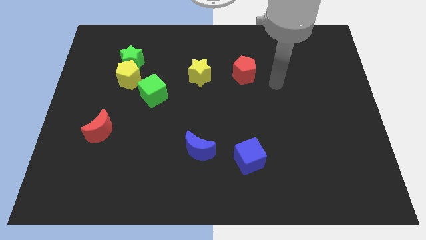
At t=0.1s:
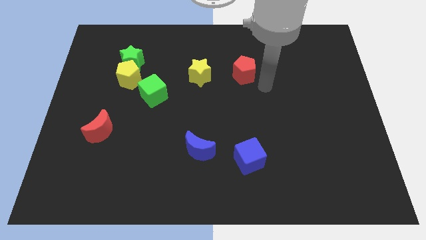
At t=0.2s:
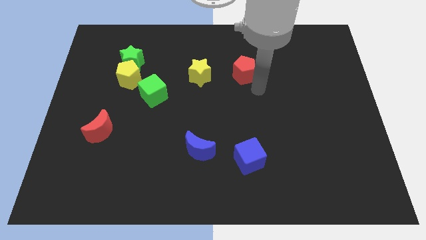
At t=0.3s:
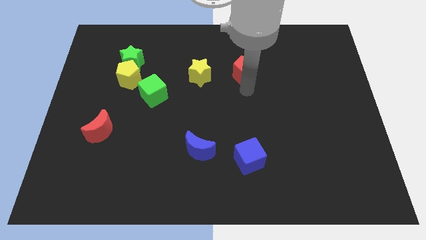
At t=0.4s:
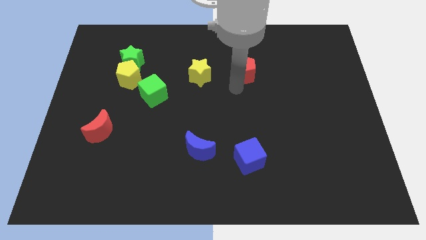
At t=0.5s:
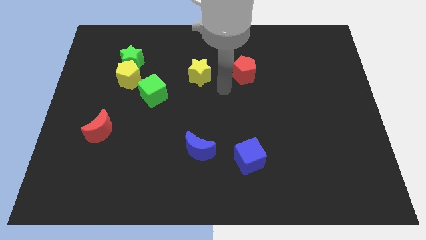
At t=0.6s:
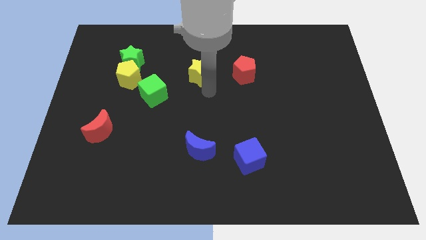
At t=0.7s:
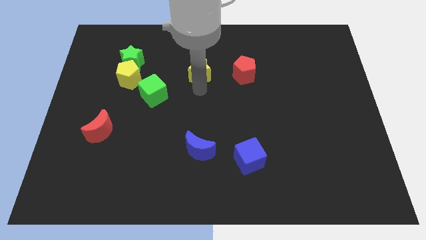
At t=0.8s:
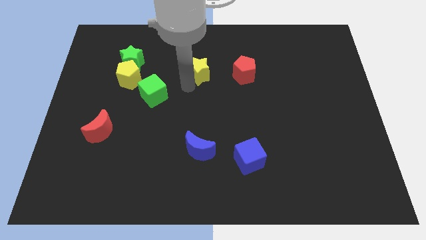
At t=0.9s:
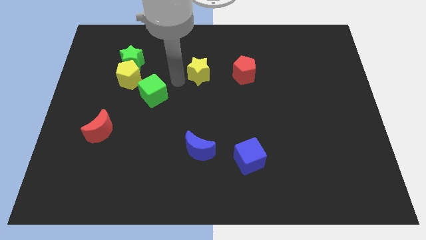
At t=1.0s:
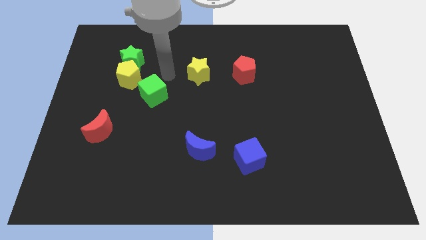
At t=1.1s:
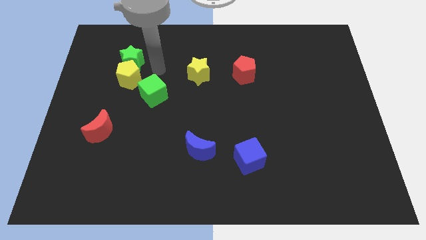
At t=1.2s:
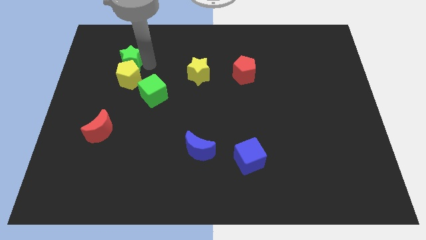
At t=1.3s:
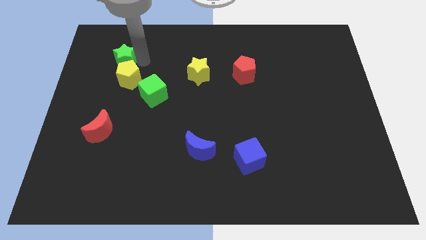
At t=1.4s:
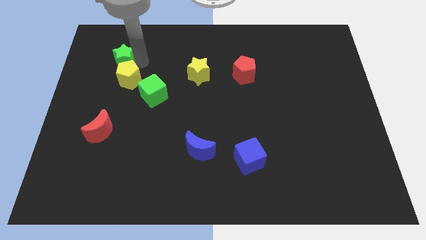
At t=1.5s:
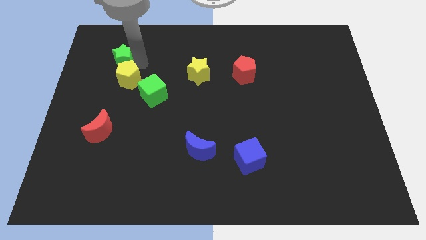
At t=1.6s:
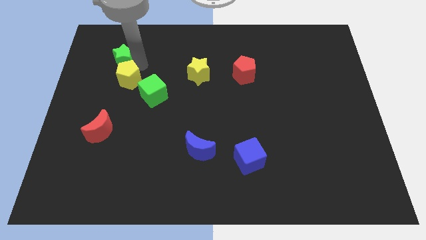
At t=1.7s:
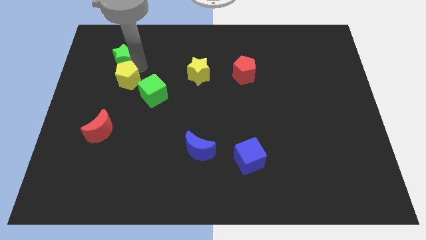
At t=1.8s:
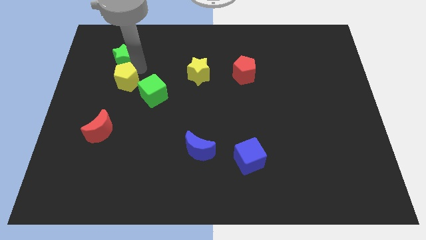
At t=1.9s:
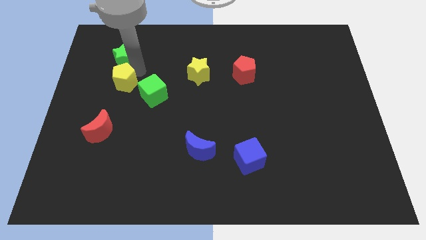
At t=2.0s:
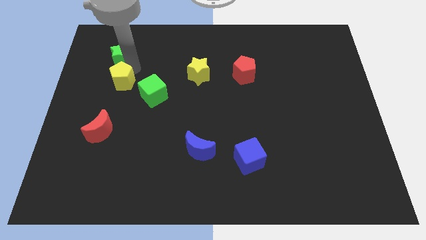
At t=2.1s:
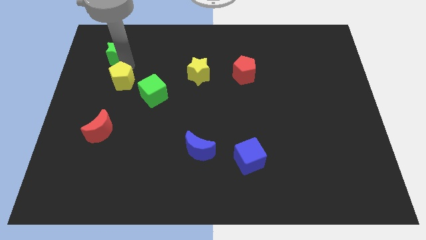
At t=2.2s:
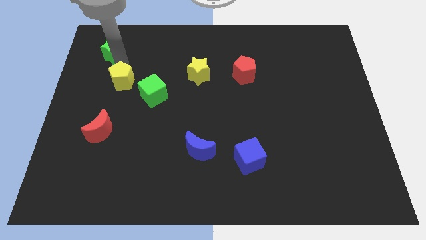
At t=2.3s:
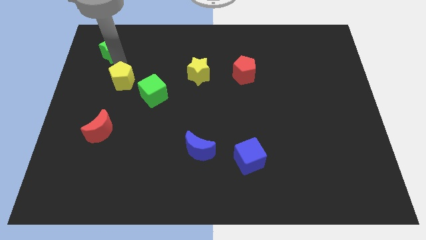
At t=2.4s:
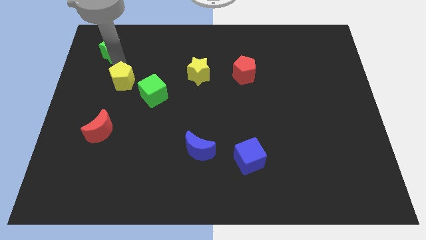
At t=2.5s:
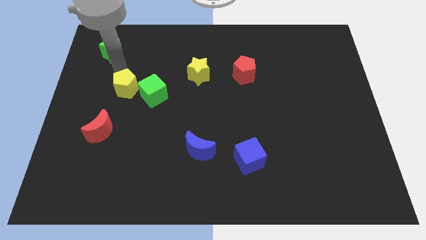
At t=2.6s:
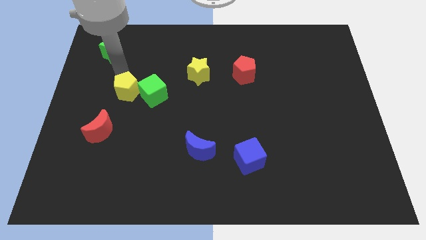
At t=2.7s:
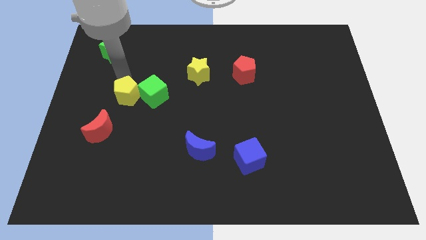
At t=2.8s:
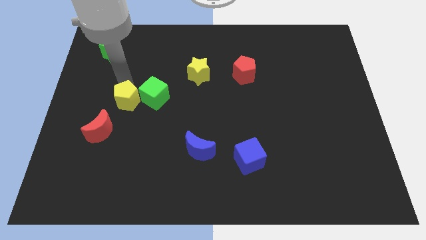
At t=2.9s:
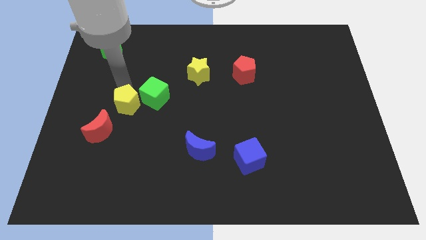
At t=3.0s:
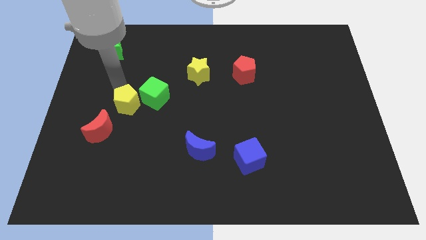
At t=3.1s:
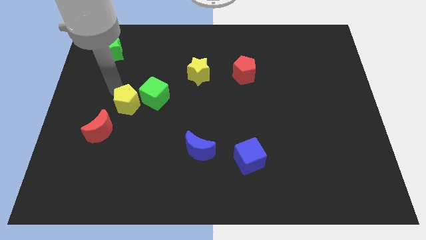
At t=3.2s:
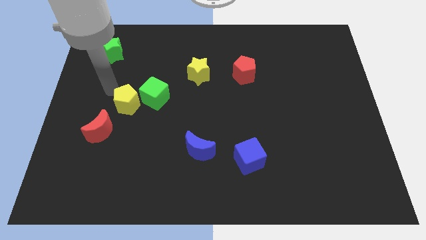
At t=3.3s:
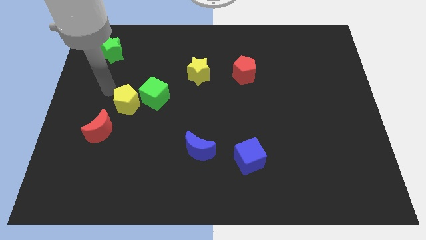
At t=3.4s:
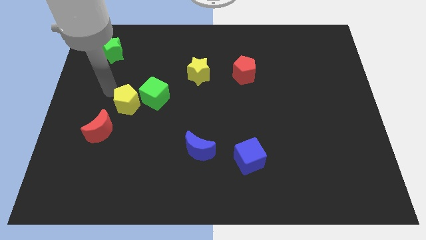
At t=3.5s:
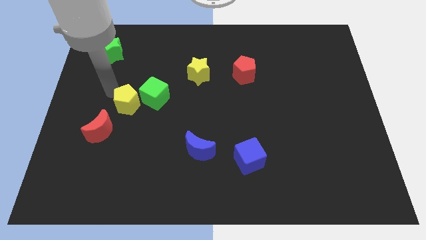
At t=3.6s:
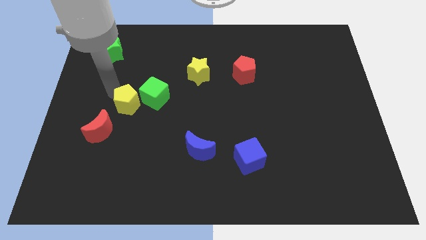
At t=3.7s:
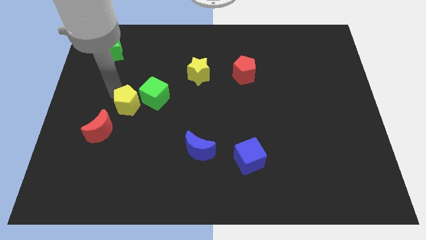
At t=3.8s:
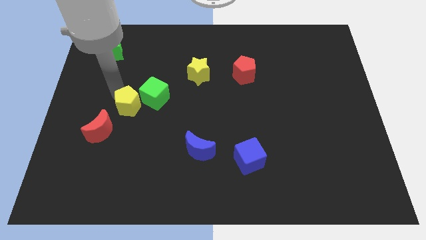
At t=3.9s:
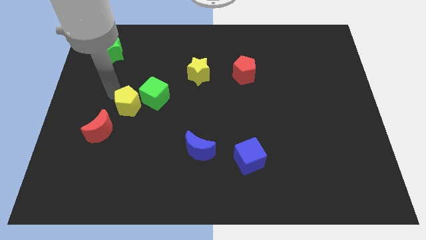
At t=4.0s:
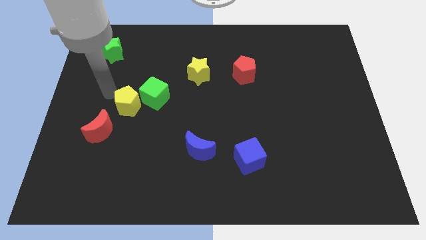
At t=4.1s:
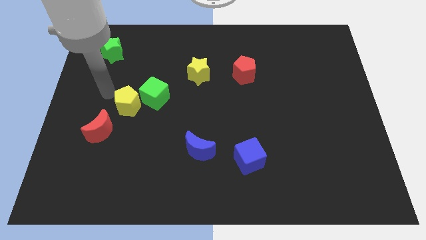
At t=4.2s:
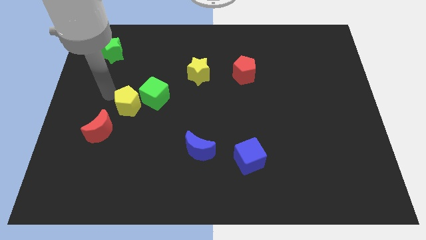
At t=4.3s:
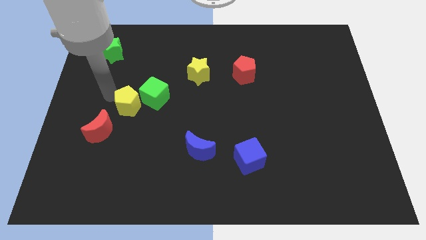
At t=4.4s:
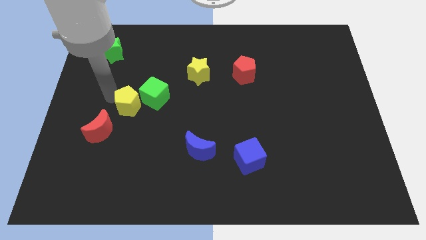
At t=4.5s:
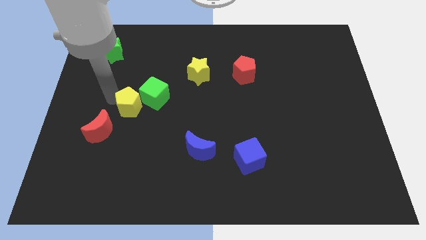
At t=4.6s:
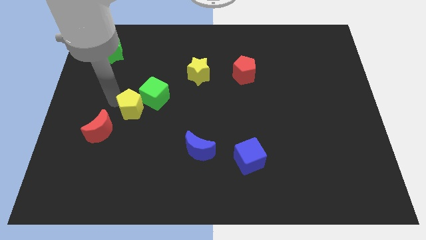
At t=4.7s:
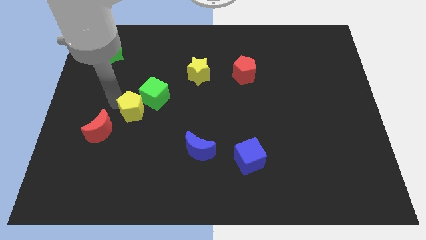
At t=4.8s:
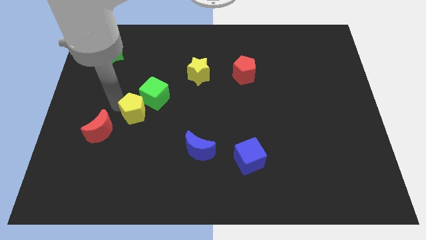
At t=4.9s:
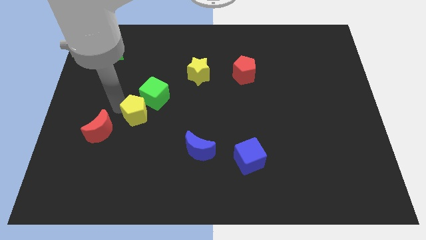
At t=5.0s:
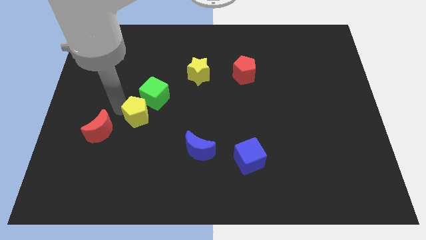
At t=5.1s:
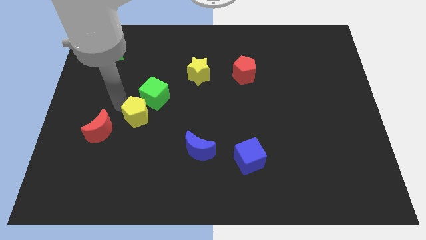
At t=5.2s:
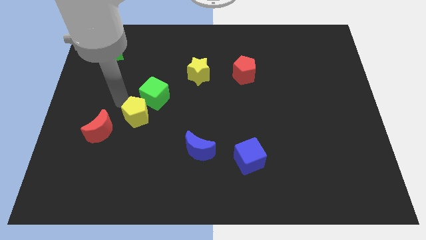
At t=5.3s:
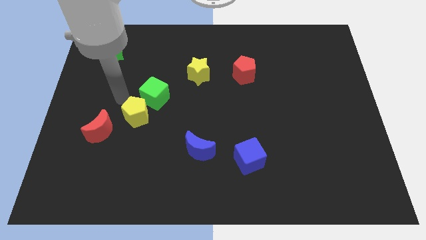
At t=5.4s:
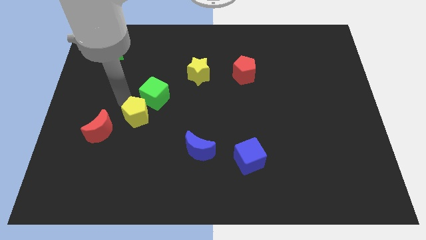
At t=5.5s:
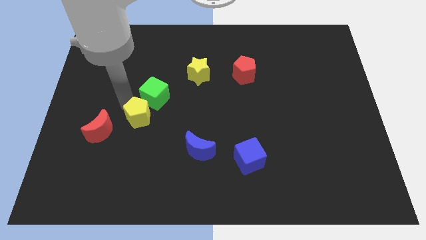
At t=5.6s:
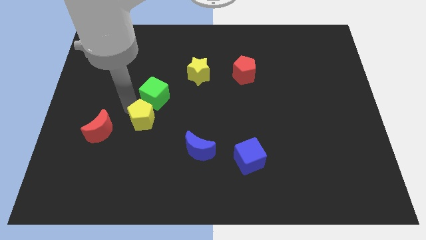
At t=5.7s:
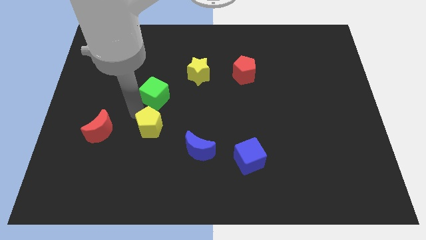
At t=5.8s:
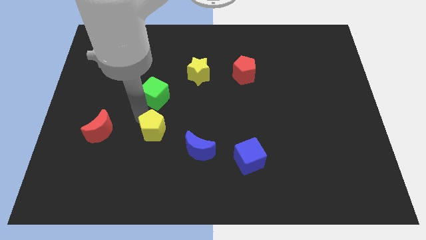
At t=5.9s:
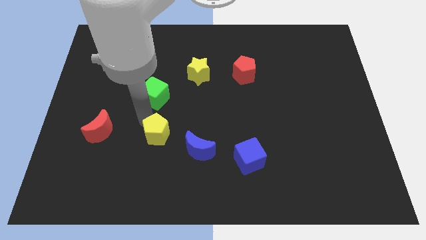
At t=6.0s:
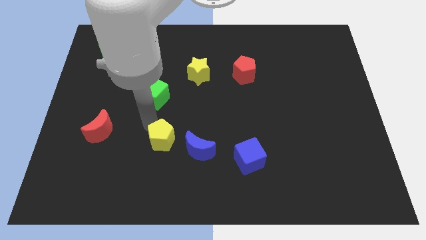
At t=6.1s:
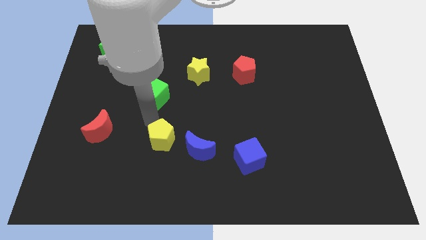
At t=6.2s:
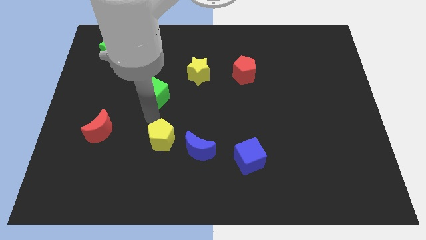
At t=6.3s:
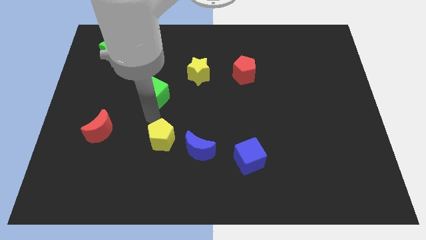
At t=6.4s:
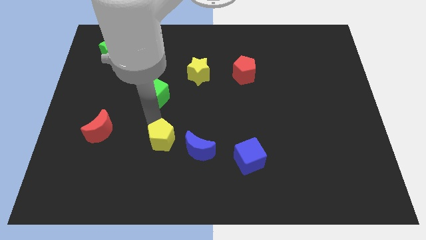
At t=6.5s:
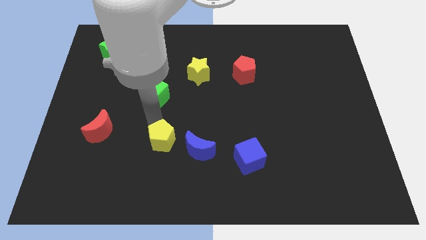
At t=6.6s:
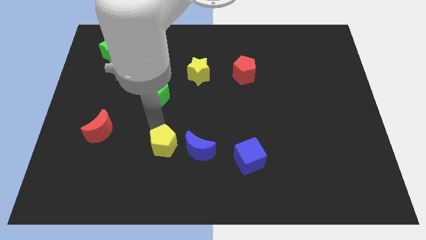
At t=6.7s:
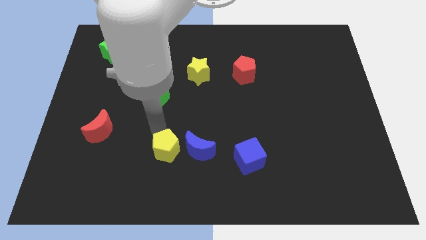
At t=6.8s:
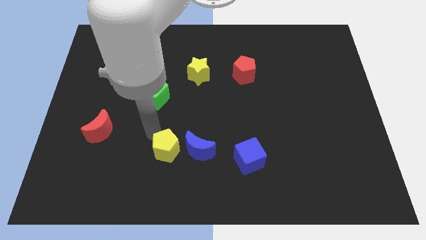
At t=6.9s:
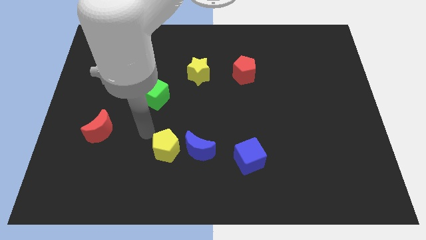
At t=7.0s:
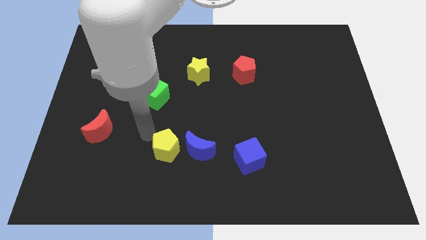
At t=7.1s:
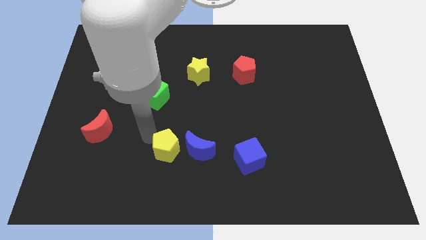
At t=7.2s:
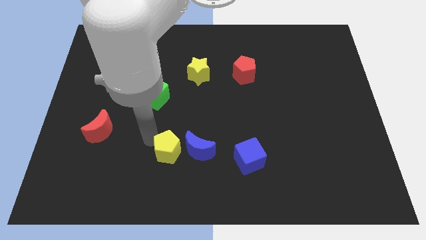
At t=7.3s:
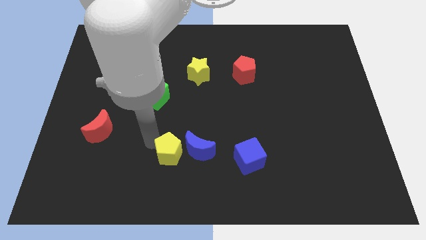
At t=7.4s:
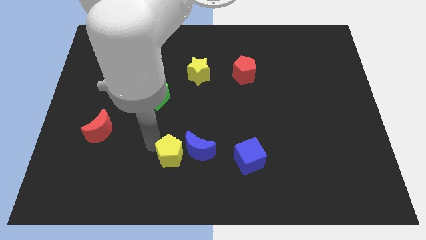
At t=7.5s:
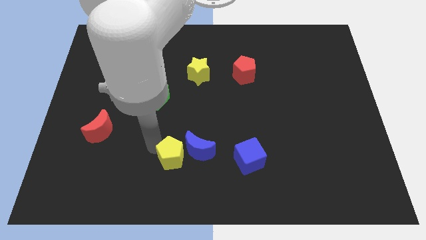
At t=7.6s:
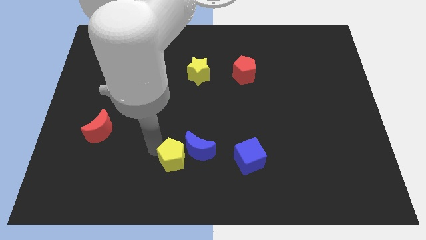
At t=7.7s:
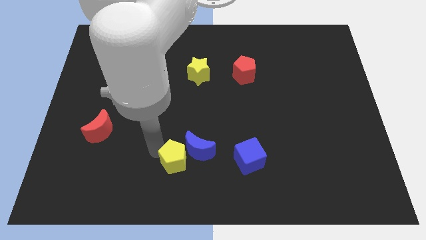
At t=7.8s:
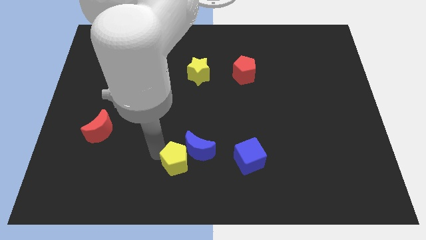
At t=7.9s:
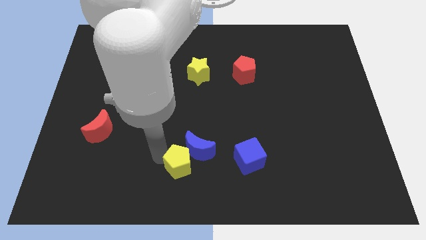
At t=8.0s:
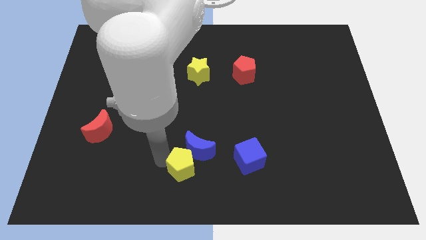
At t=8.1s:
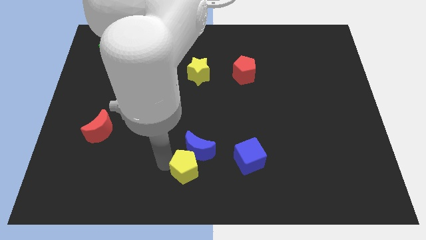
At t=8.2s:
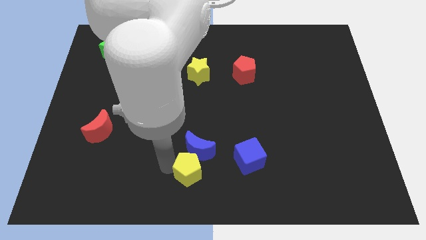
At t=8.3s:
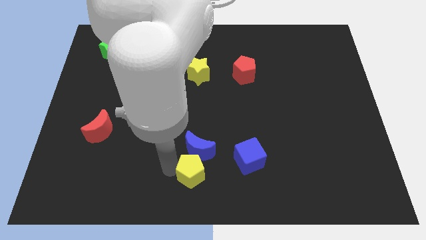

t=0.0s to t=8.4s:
slide the yellow pentagon diagonally down and to the right of the blue moon
